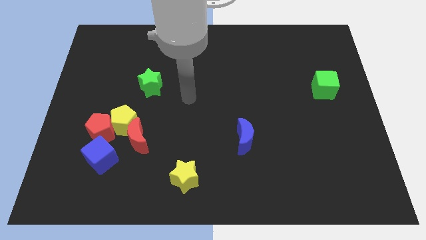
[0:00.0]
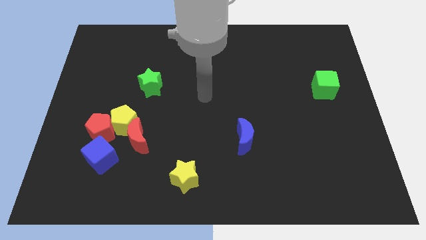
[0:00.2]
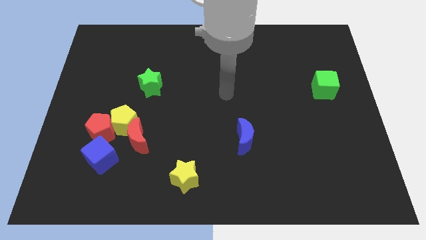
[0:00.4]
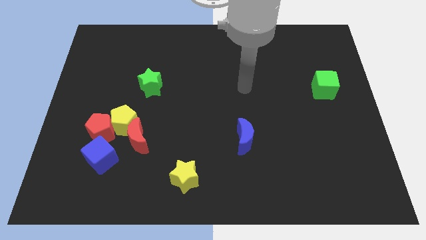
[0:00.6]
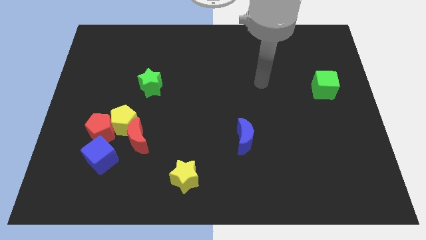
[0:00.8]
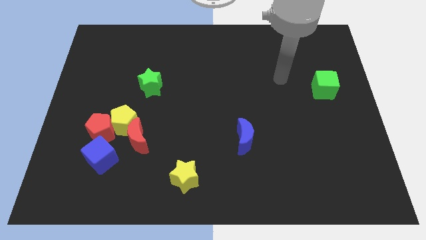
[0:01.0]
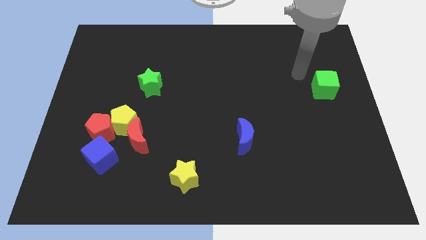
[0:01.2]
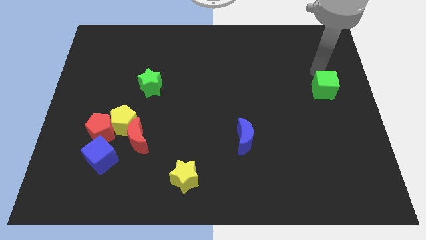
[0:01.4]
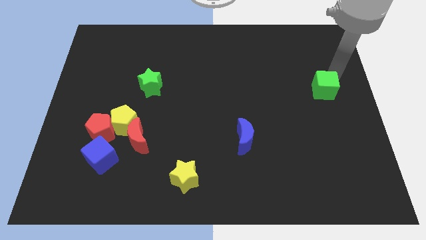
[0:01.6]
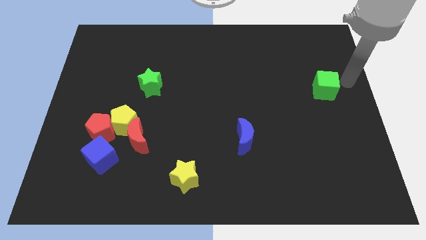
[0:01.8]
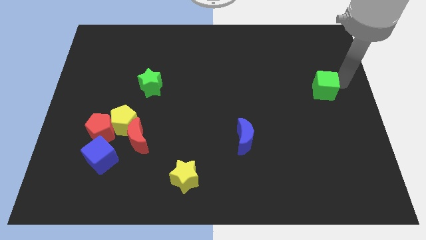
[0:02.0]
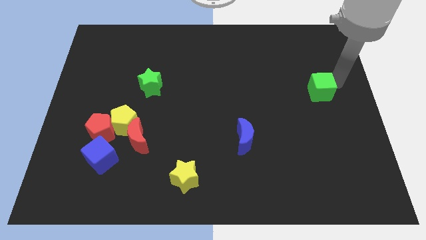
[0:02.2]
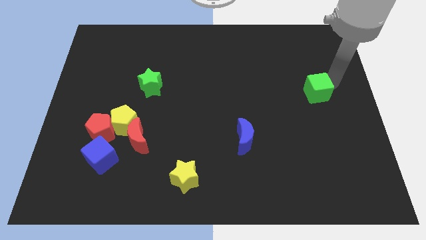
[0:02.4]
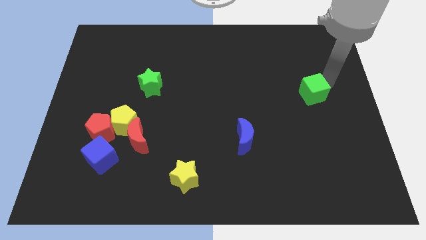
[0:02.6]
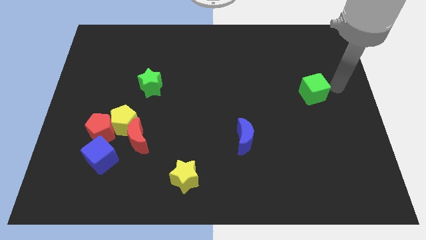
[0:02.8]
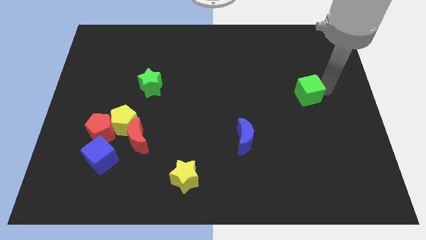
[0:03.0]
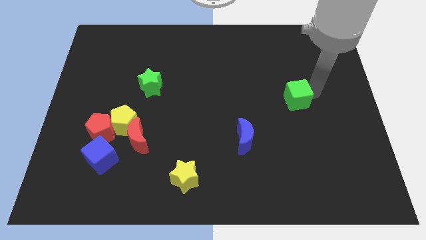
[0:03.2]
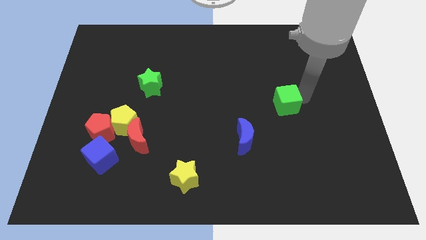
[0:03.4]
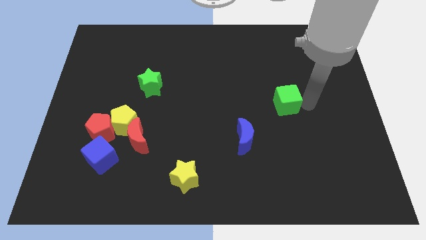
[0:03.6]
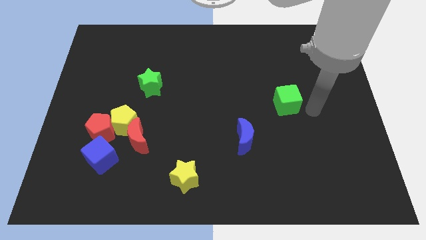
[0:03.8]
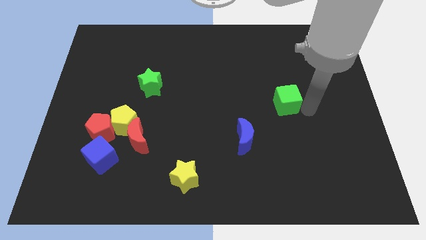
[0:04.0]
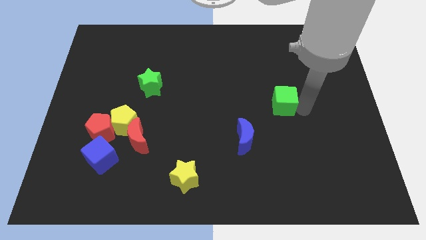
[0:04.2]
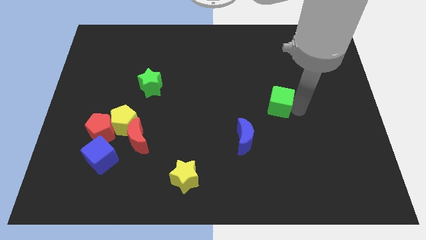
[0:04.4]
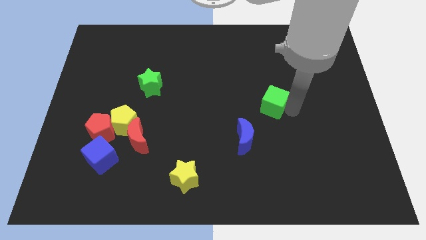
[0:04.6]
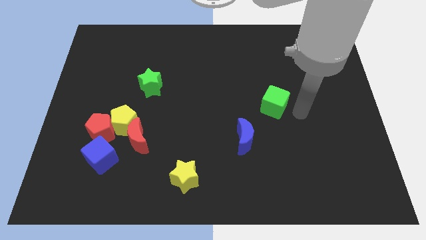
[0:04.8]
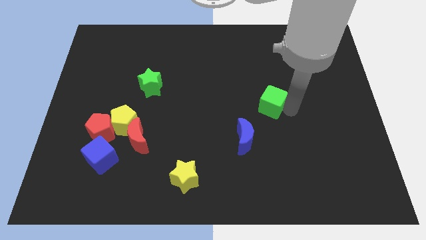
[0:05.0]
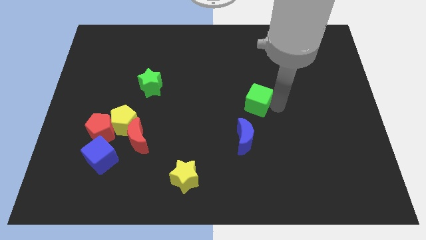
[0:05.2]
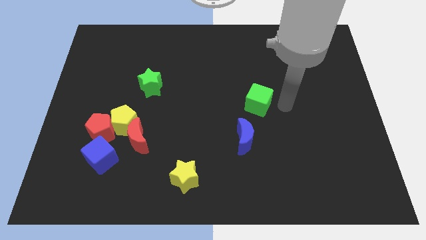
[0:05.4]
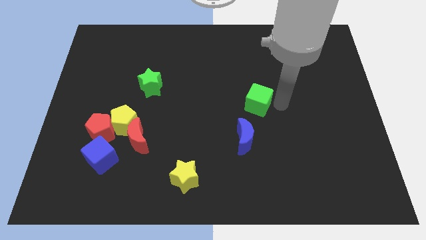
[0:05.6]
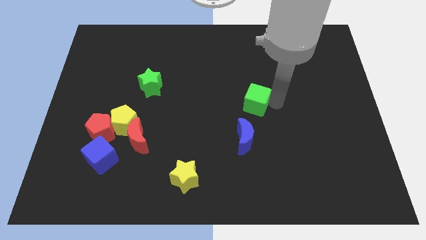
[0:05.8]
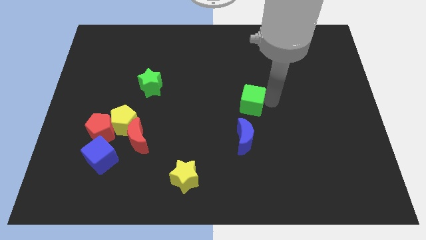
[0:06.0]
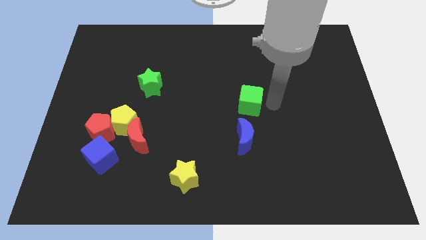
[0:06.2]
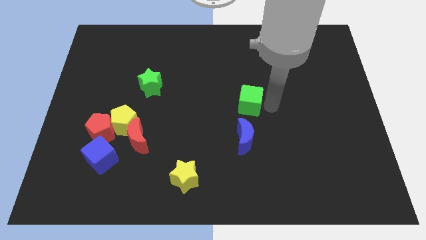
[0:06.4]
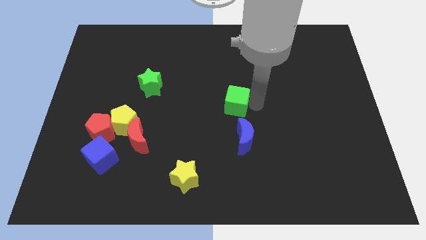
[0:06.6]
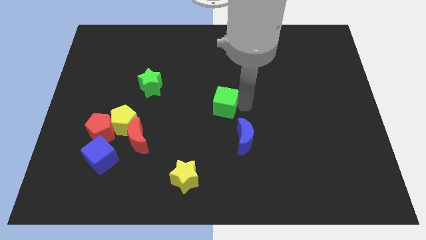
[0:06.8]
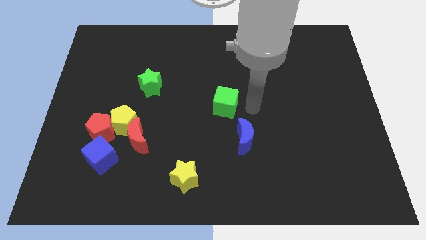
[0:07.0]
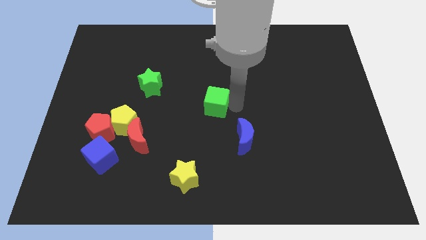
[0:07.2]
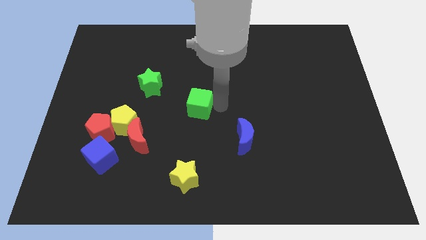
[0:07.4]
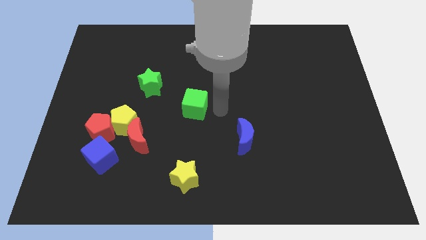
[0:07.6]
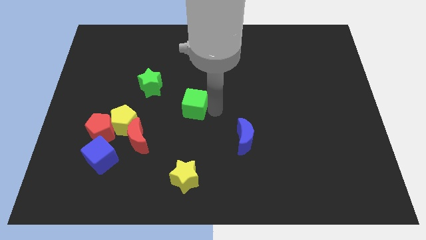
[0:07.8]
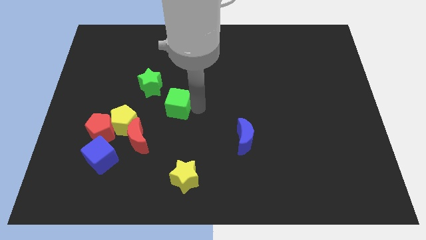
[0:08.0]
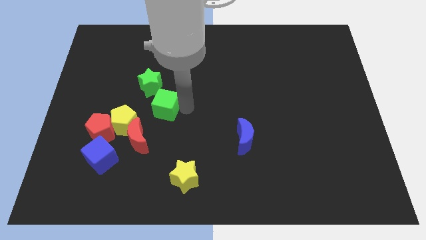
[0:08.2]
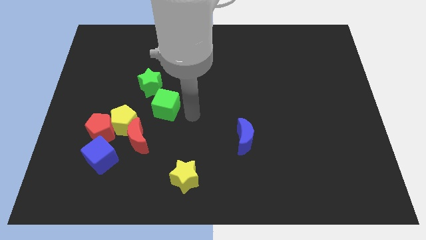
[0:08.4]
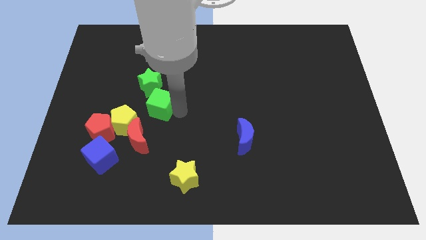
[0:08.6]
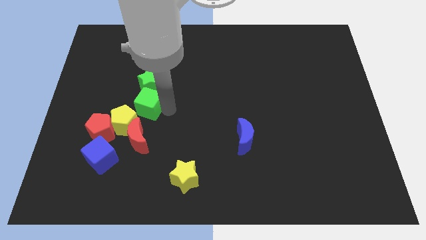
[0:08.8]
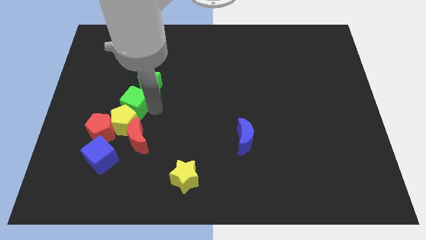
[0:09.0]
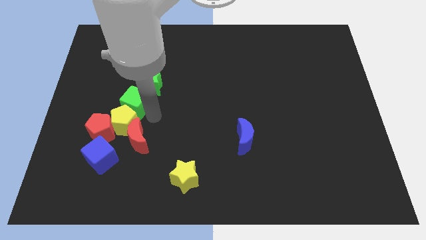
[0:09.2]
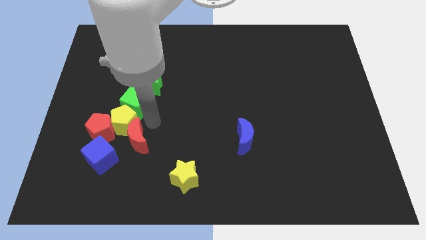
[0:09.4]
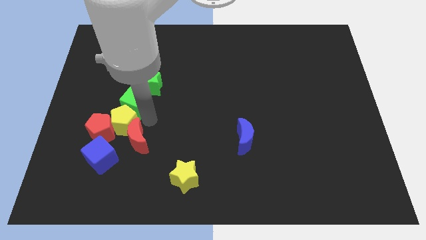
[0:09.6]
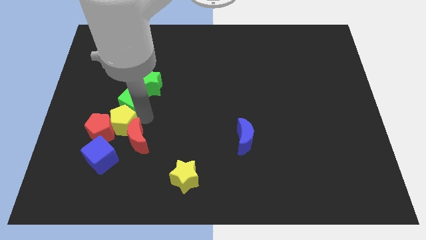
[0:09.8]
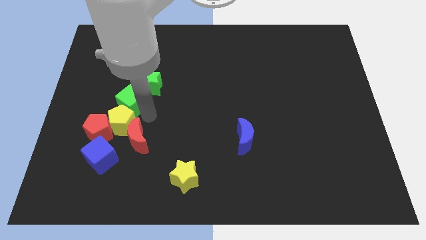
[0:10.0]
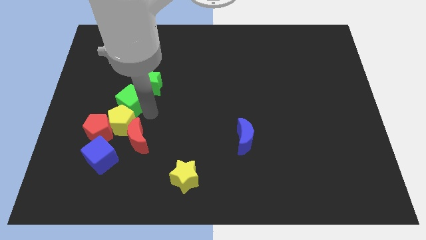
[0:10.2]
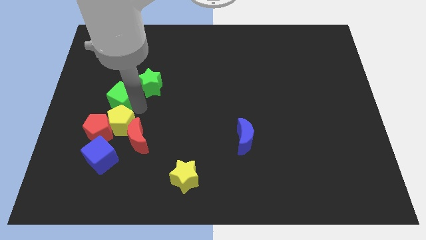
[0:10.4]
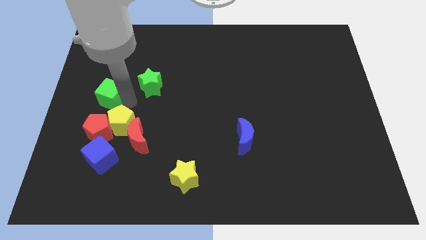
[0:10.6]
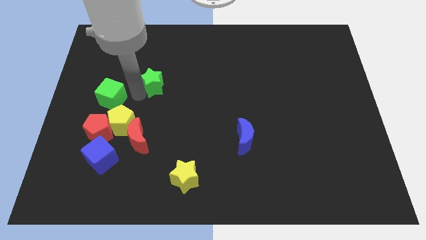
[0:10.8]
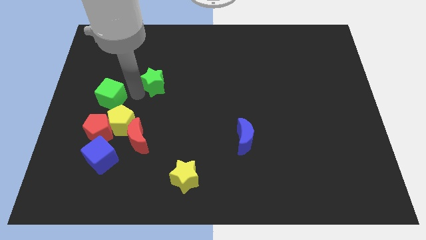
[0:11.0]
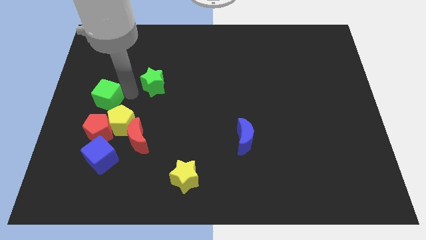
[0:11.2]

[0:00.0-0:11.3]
slide the green cube to the center left
